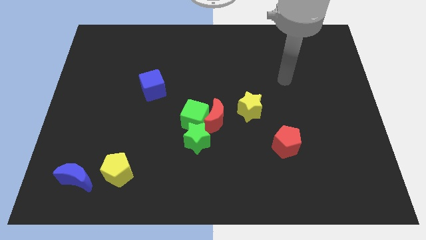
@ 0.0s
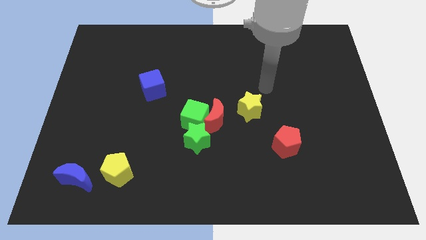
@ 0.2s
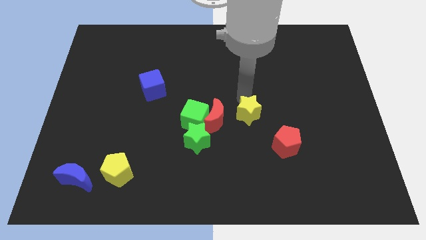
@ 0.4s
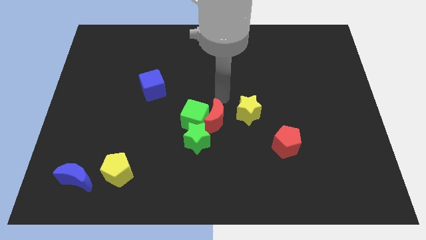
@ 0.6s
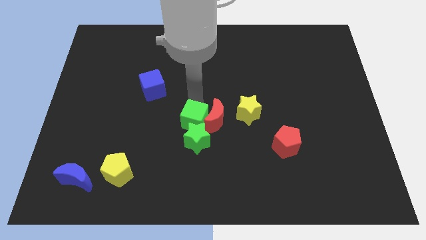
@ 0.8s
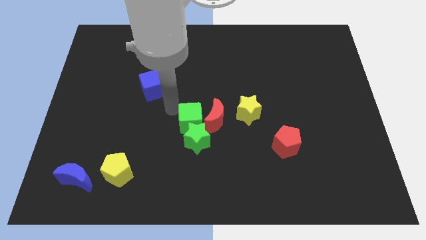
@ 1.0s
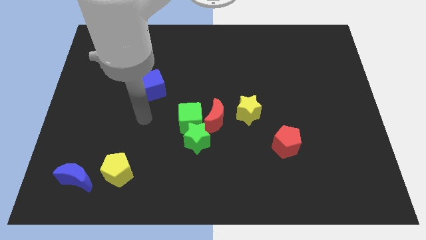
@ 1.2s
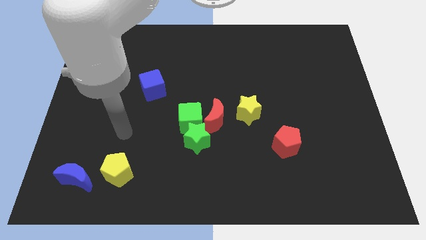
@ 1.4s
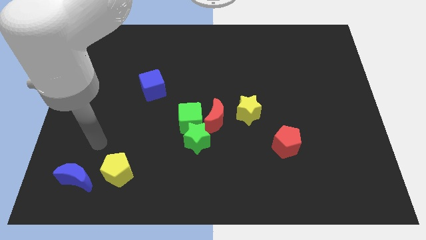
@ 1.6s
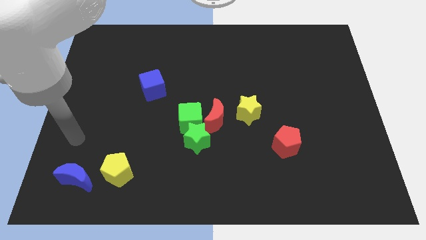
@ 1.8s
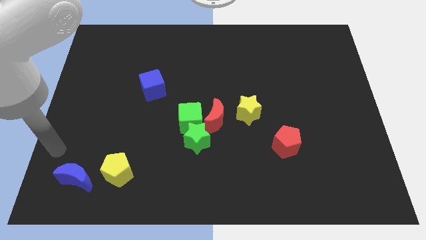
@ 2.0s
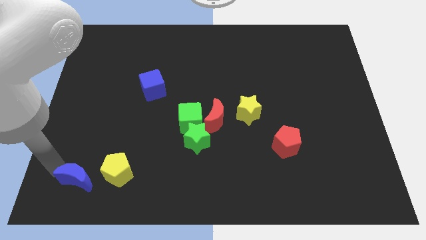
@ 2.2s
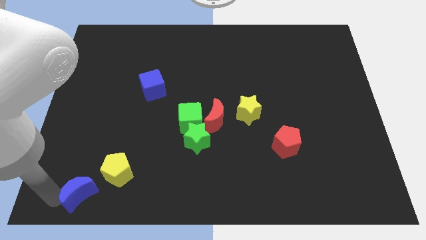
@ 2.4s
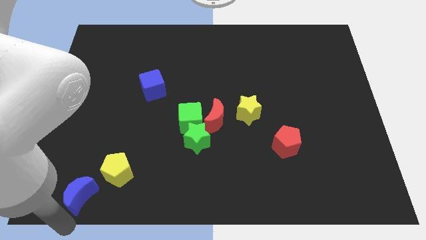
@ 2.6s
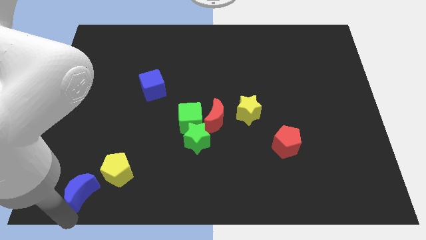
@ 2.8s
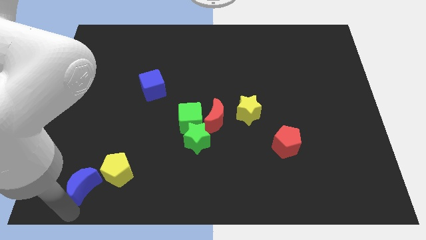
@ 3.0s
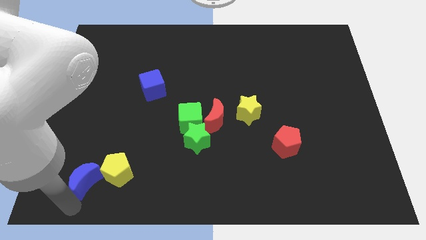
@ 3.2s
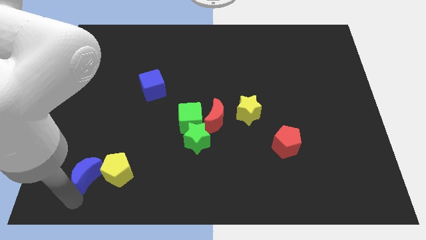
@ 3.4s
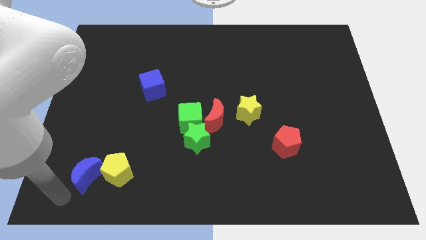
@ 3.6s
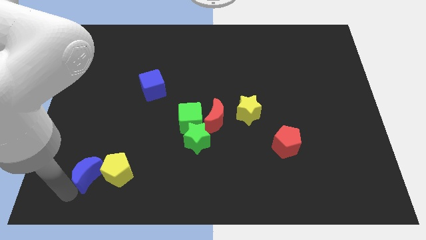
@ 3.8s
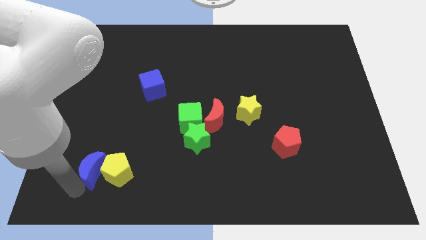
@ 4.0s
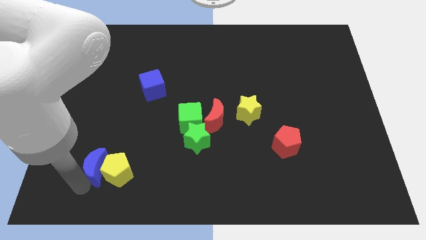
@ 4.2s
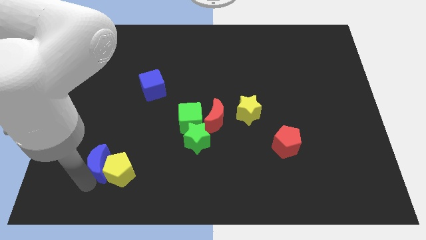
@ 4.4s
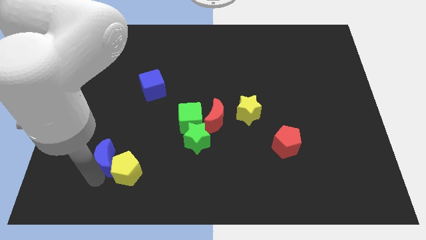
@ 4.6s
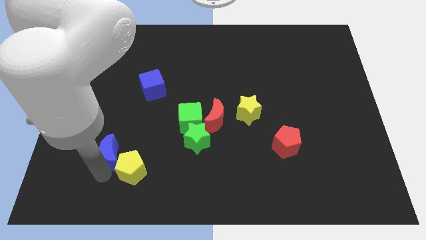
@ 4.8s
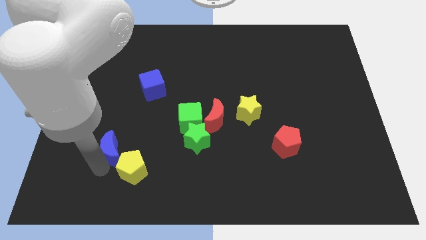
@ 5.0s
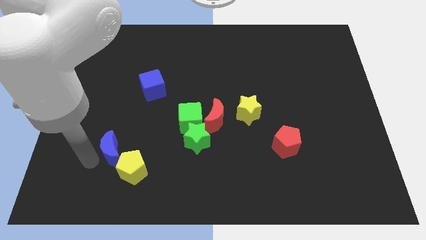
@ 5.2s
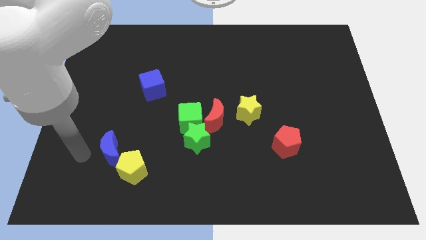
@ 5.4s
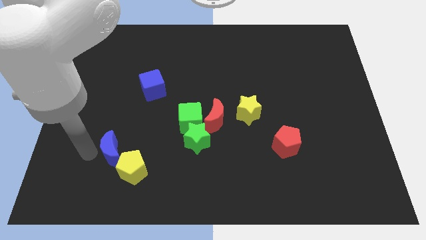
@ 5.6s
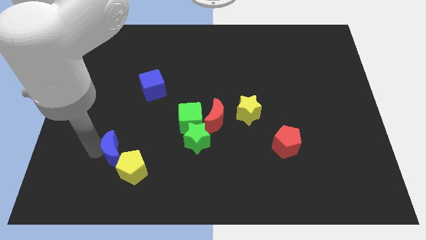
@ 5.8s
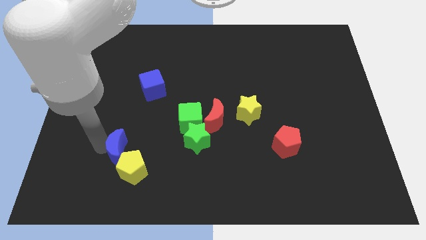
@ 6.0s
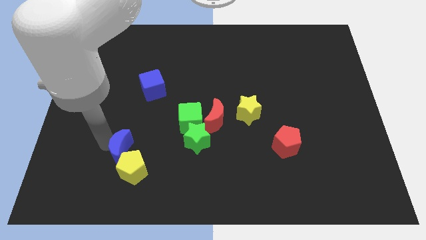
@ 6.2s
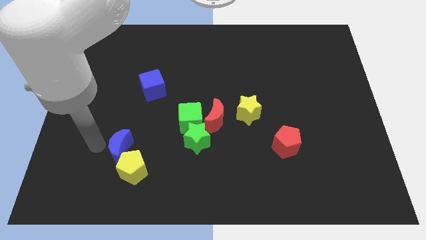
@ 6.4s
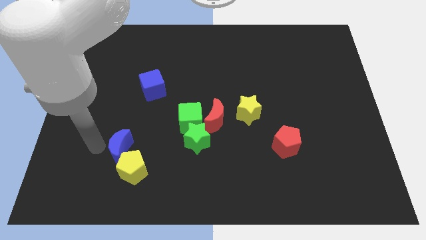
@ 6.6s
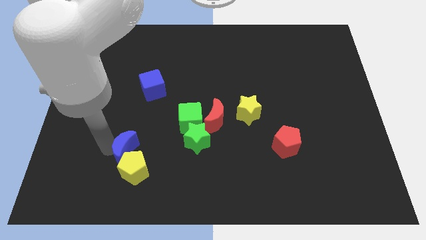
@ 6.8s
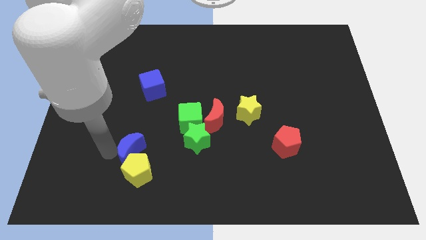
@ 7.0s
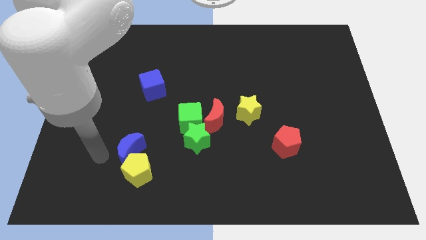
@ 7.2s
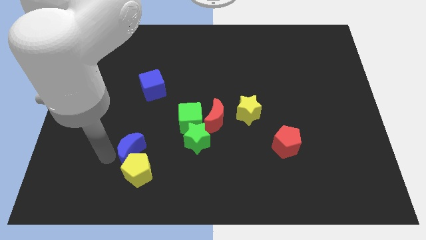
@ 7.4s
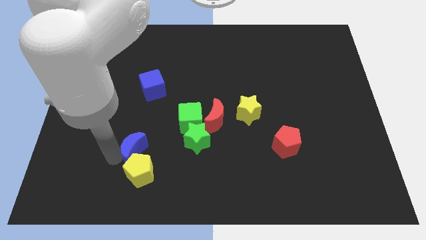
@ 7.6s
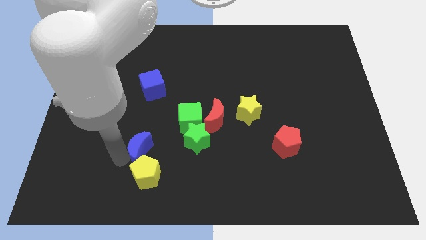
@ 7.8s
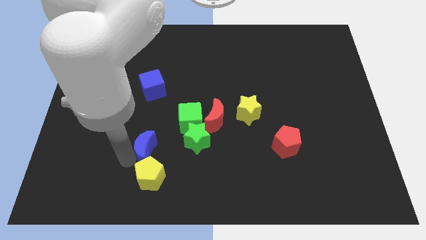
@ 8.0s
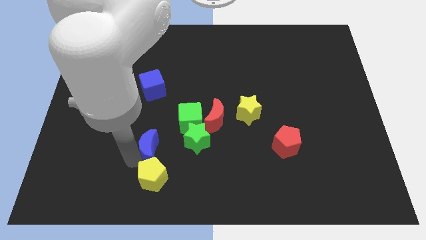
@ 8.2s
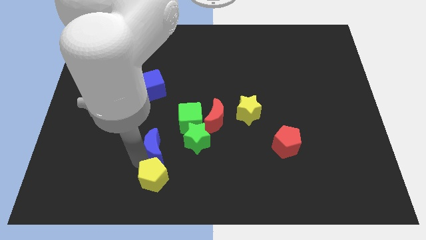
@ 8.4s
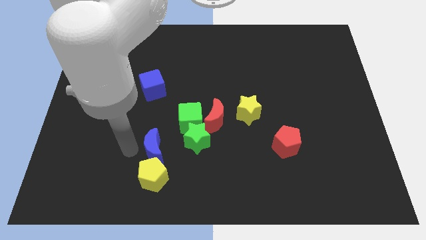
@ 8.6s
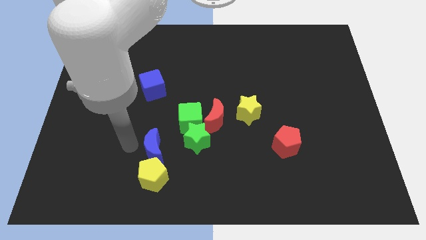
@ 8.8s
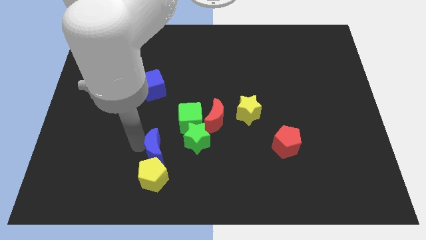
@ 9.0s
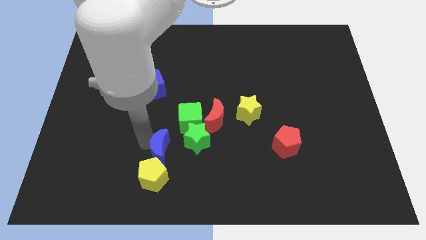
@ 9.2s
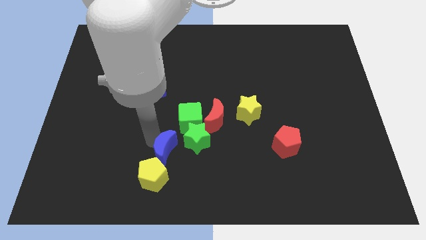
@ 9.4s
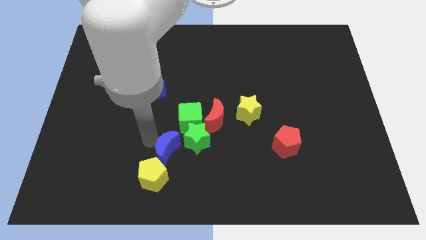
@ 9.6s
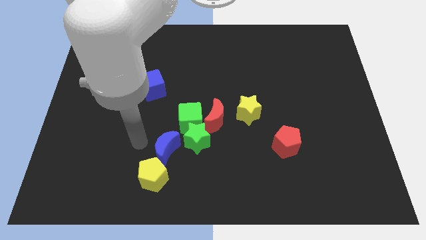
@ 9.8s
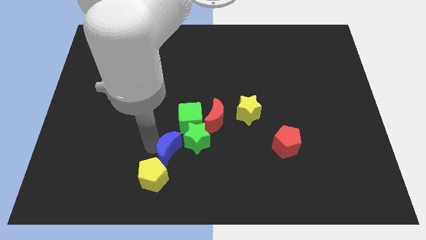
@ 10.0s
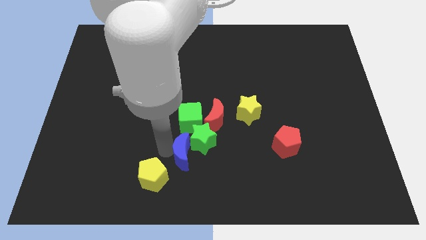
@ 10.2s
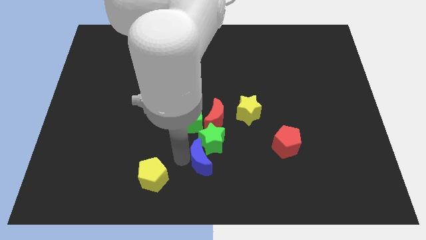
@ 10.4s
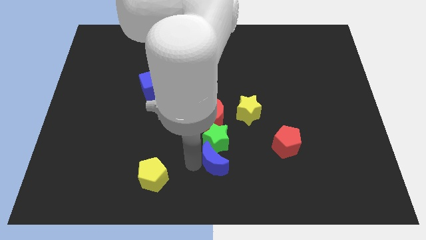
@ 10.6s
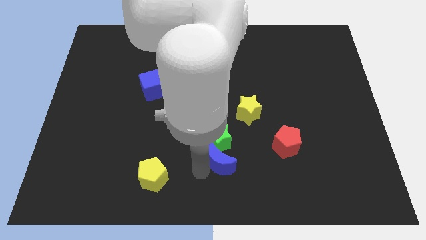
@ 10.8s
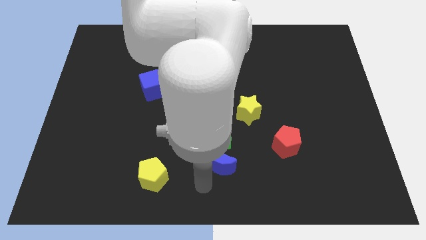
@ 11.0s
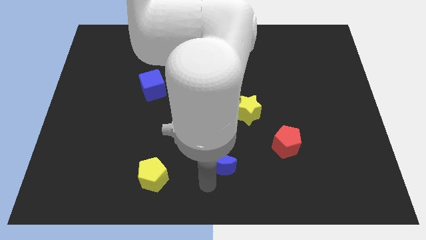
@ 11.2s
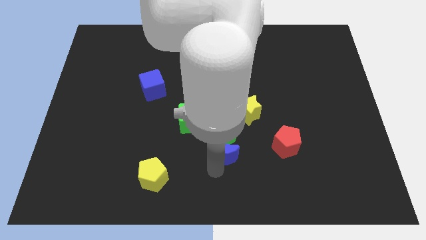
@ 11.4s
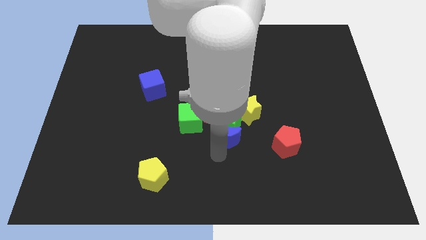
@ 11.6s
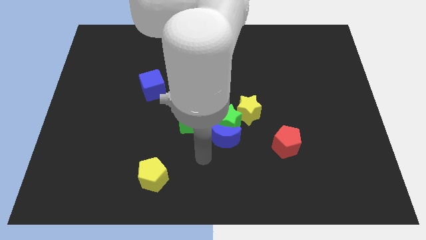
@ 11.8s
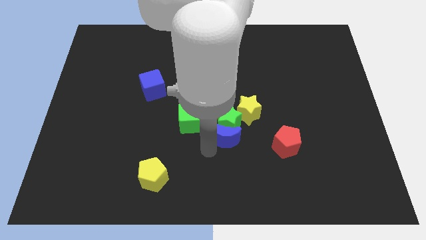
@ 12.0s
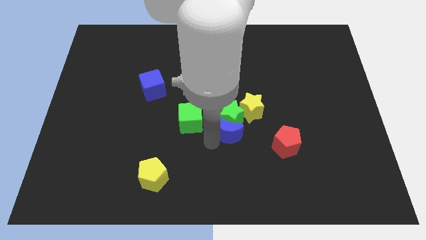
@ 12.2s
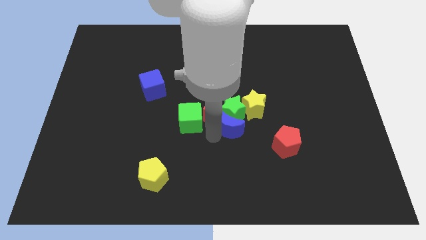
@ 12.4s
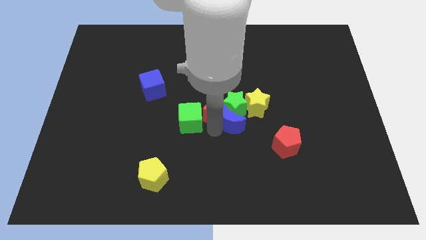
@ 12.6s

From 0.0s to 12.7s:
slide the blue moon just right of the red moon

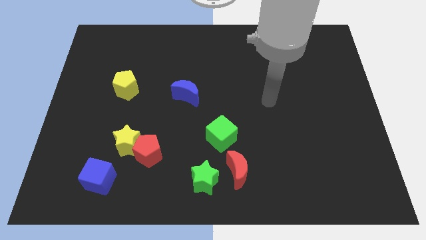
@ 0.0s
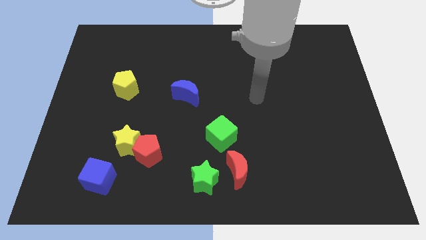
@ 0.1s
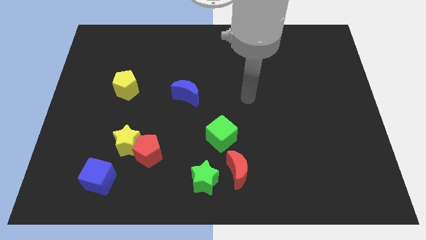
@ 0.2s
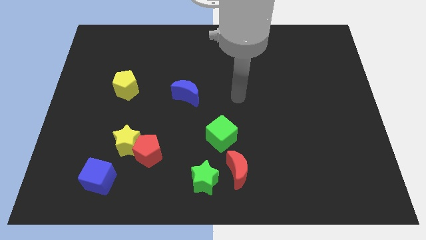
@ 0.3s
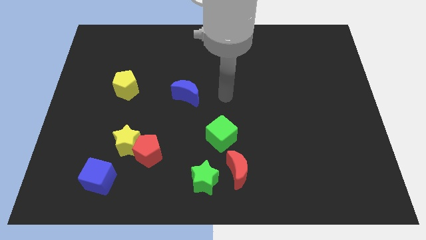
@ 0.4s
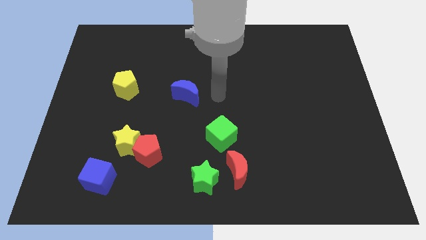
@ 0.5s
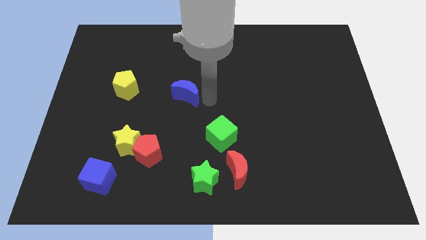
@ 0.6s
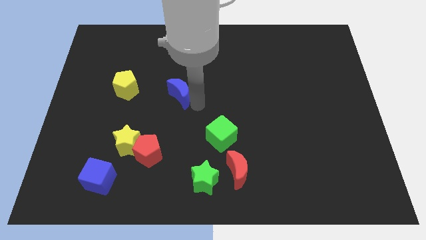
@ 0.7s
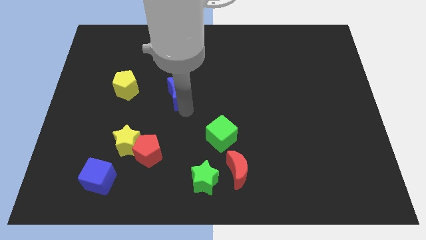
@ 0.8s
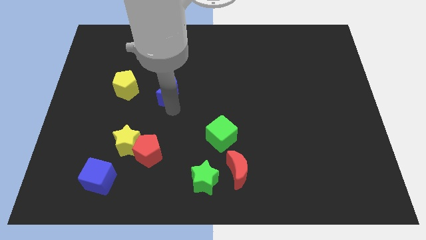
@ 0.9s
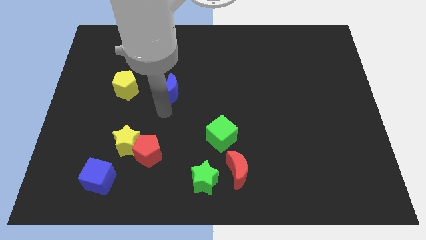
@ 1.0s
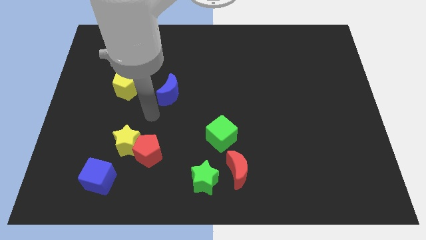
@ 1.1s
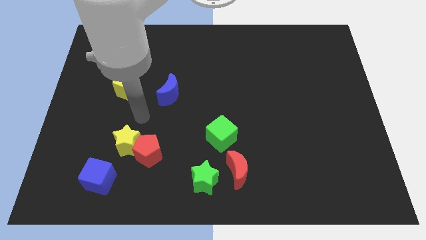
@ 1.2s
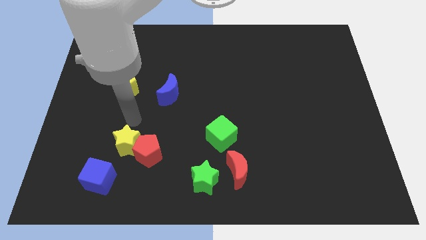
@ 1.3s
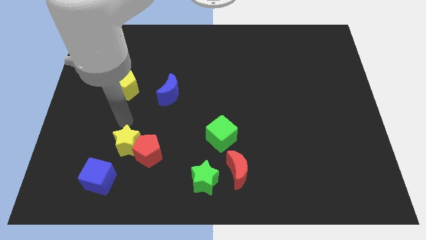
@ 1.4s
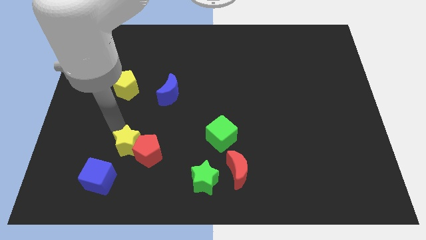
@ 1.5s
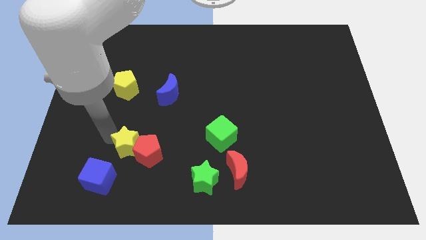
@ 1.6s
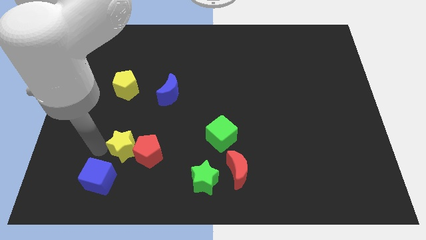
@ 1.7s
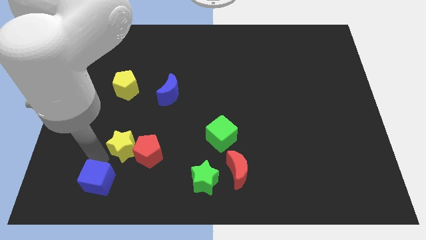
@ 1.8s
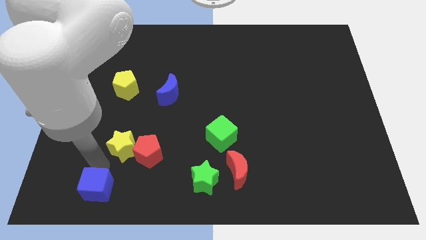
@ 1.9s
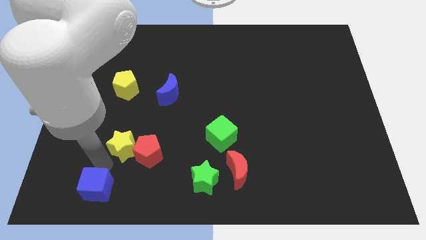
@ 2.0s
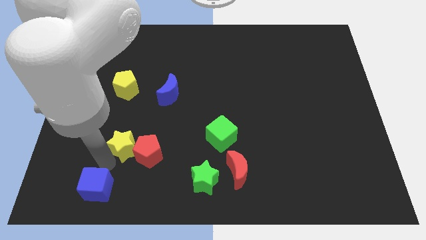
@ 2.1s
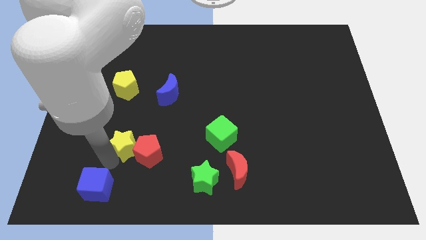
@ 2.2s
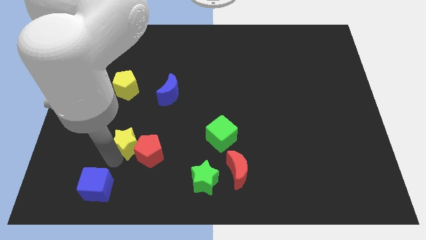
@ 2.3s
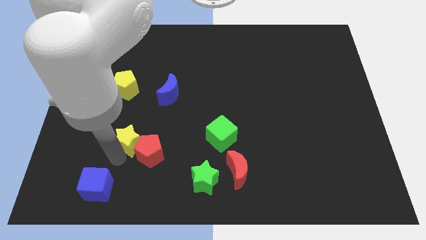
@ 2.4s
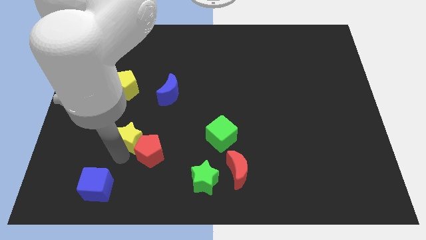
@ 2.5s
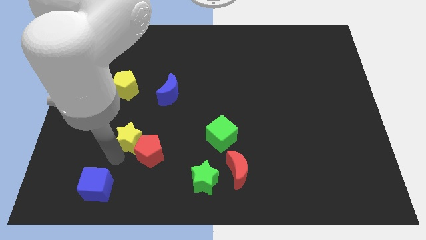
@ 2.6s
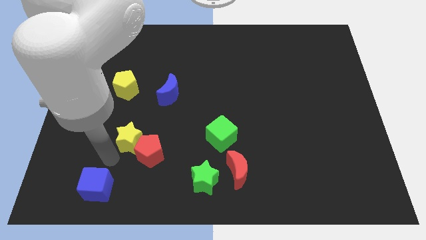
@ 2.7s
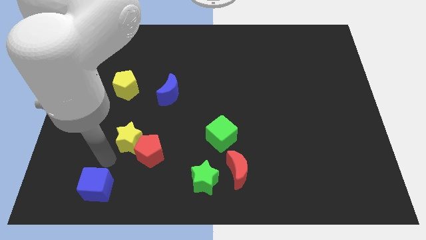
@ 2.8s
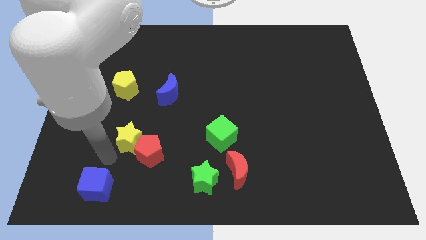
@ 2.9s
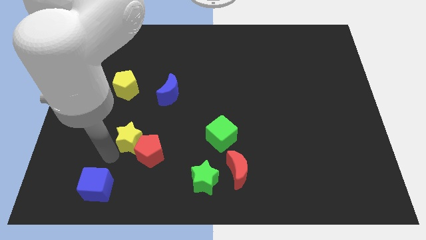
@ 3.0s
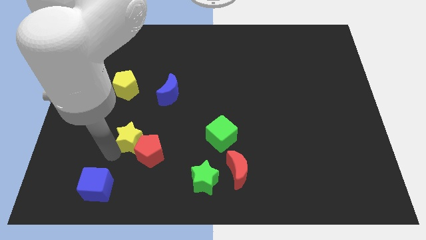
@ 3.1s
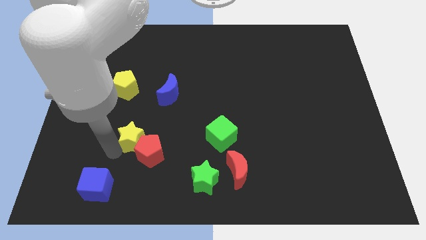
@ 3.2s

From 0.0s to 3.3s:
put the yellow star to the top side of the red pentagon
